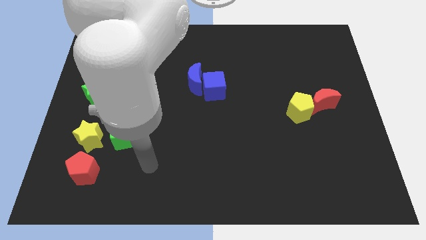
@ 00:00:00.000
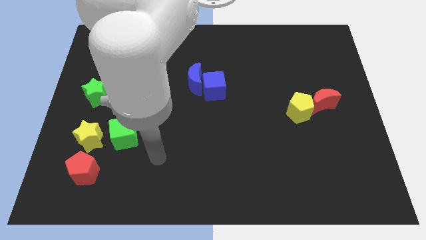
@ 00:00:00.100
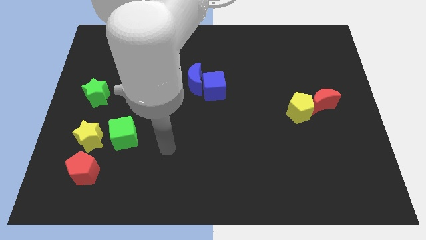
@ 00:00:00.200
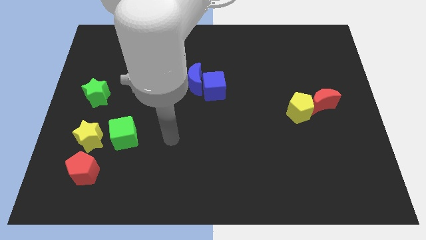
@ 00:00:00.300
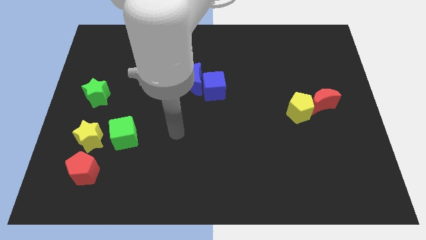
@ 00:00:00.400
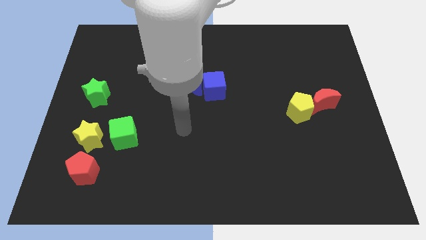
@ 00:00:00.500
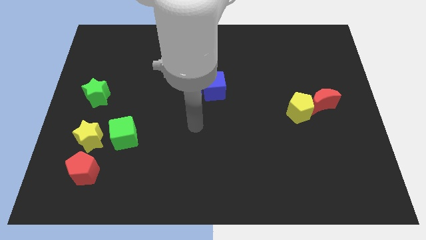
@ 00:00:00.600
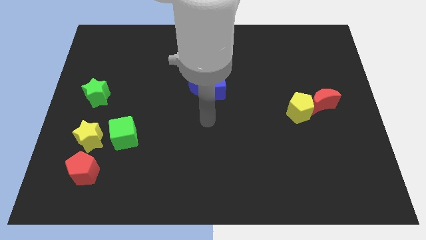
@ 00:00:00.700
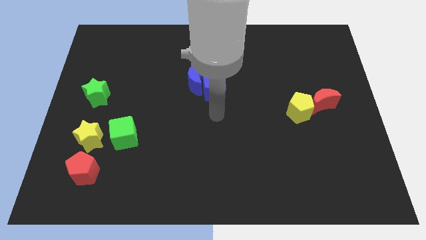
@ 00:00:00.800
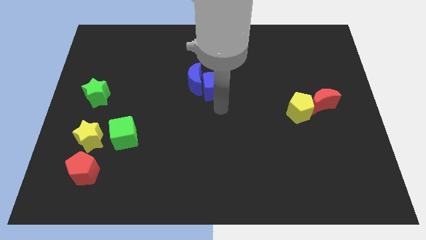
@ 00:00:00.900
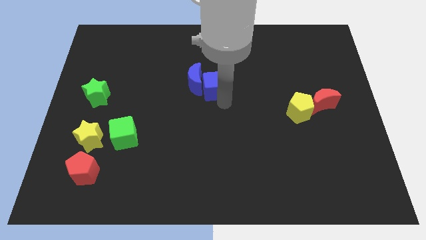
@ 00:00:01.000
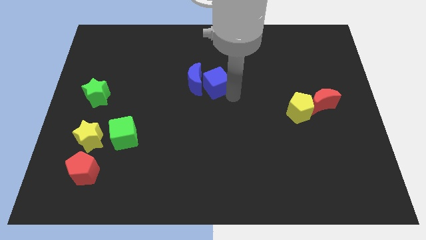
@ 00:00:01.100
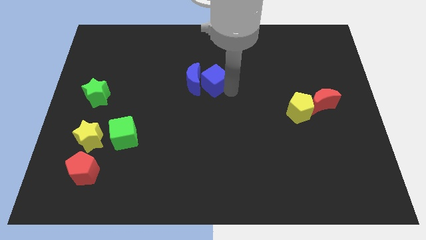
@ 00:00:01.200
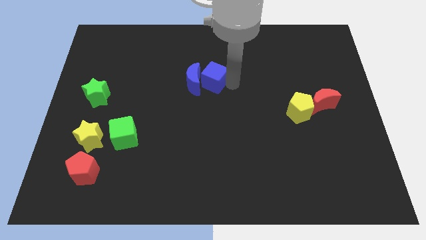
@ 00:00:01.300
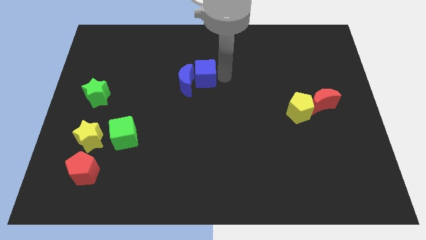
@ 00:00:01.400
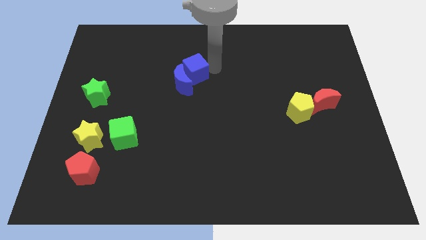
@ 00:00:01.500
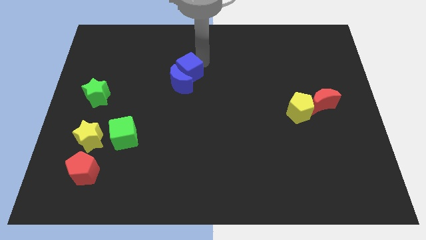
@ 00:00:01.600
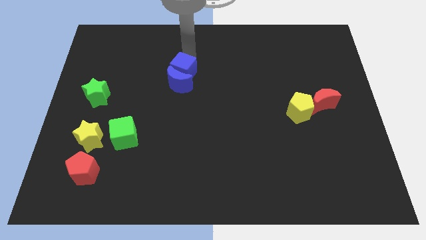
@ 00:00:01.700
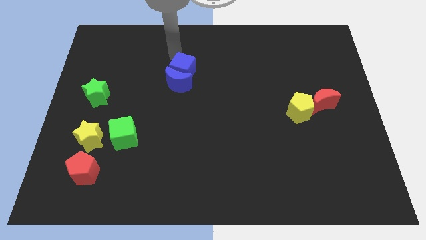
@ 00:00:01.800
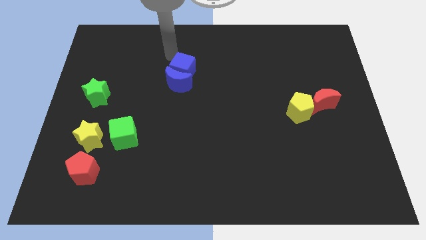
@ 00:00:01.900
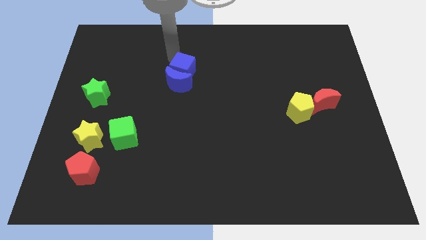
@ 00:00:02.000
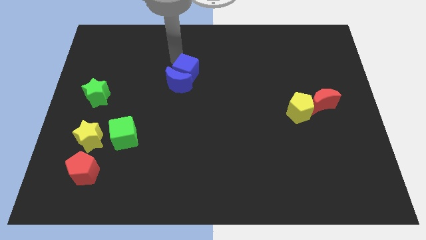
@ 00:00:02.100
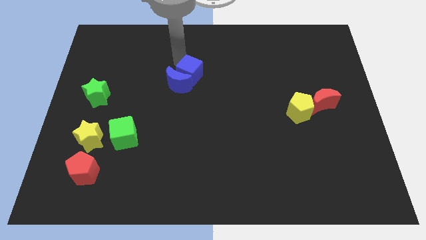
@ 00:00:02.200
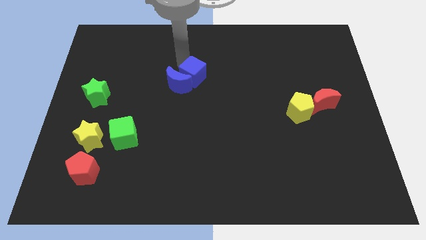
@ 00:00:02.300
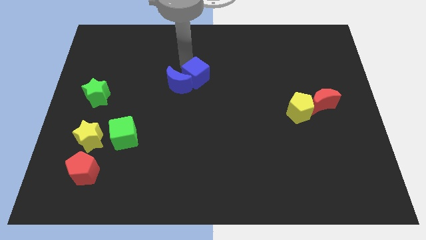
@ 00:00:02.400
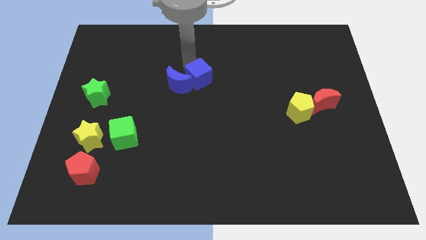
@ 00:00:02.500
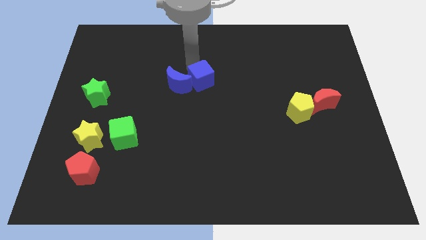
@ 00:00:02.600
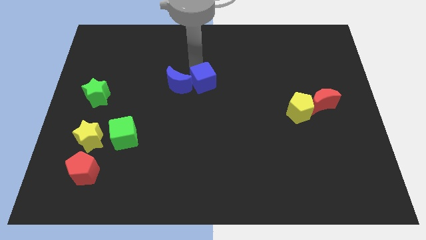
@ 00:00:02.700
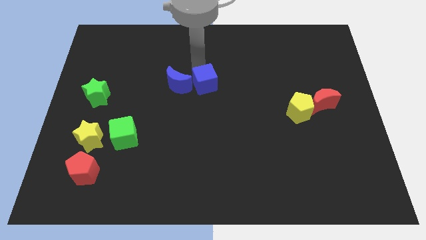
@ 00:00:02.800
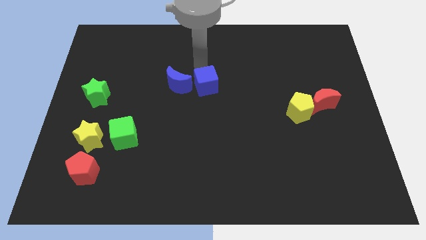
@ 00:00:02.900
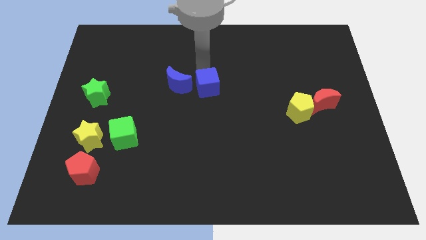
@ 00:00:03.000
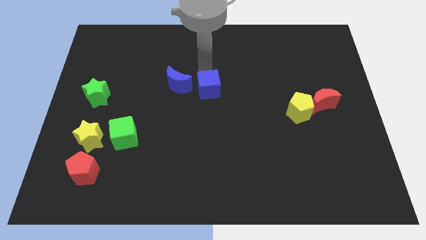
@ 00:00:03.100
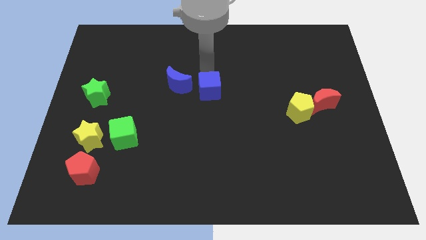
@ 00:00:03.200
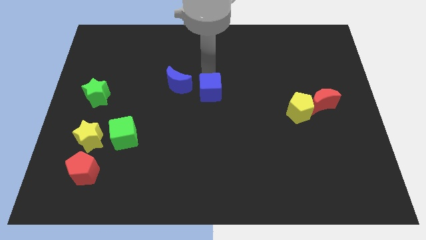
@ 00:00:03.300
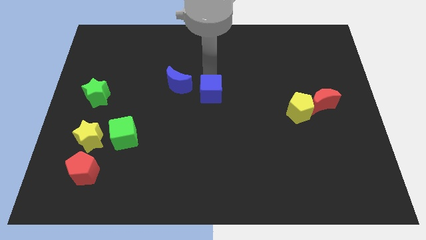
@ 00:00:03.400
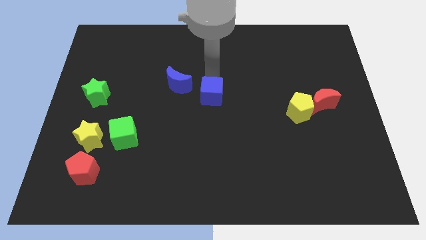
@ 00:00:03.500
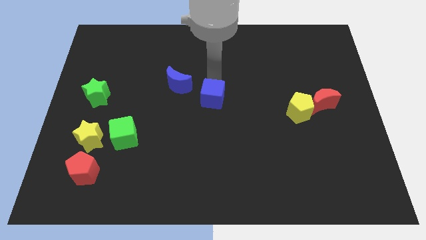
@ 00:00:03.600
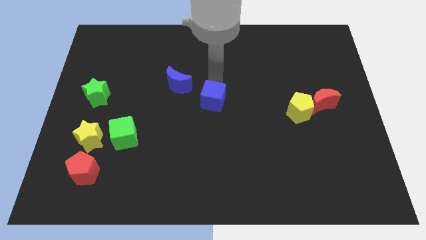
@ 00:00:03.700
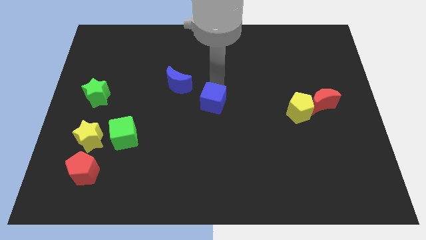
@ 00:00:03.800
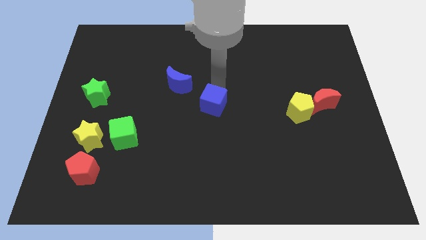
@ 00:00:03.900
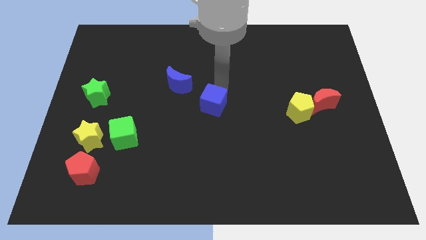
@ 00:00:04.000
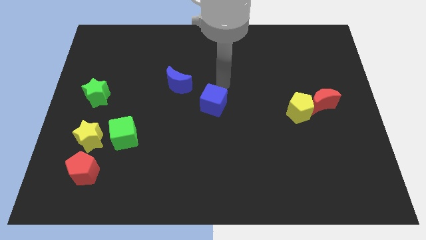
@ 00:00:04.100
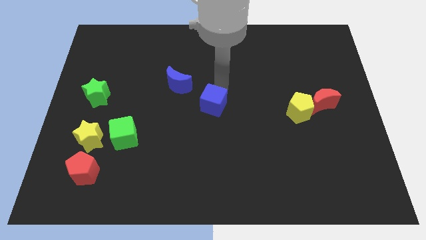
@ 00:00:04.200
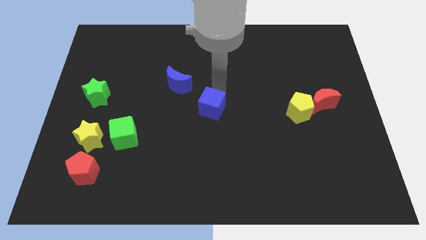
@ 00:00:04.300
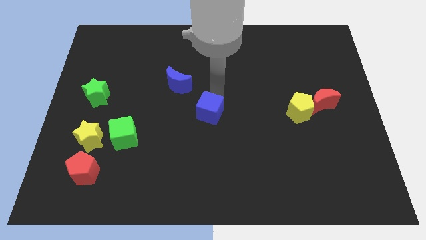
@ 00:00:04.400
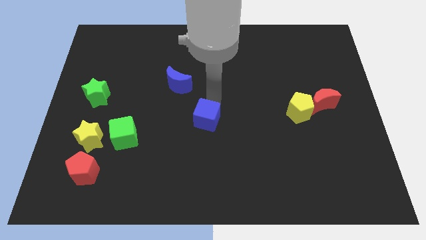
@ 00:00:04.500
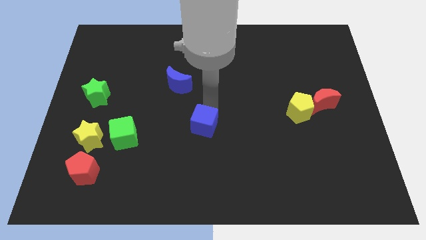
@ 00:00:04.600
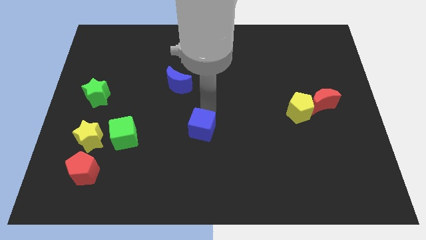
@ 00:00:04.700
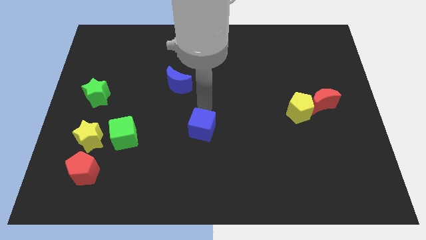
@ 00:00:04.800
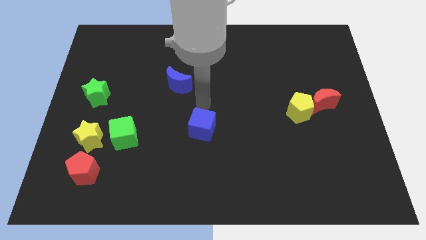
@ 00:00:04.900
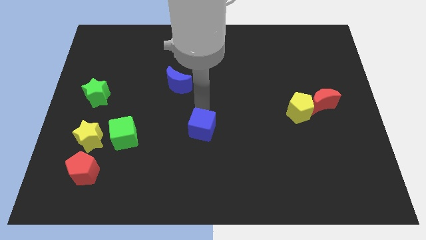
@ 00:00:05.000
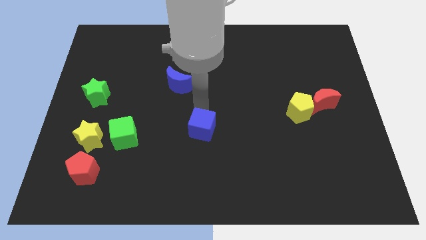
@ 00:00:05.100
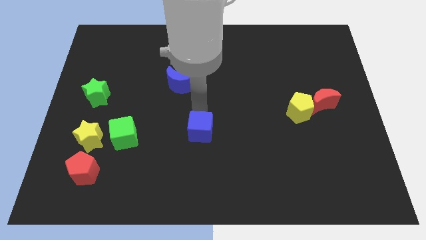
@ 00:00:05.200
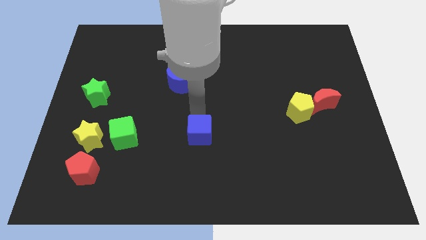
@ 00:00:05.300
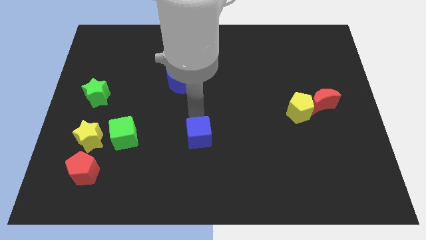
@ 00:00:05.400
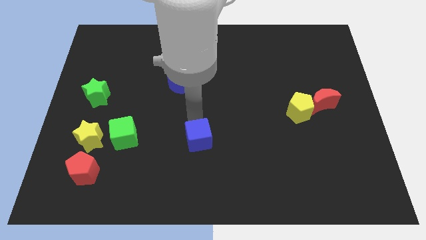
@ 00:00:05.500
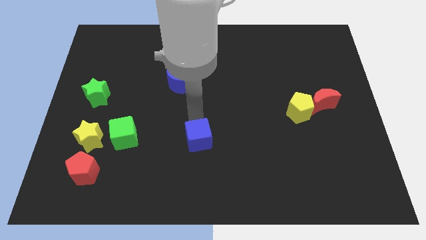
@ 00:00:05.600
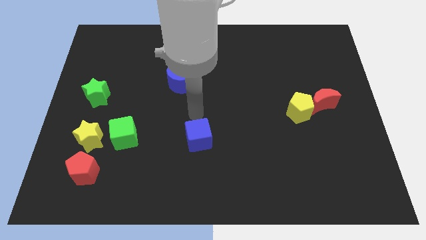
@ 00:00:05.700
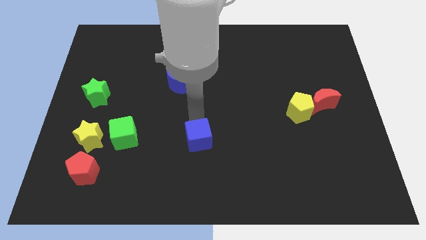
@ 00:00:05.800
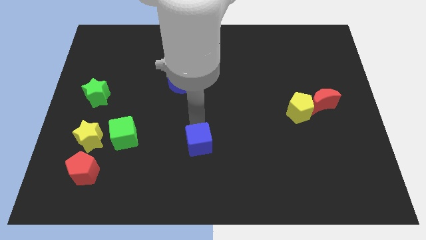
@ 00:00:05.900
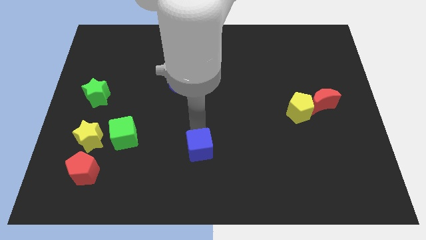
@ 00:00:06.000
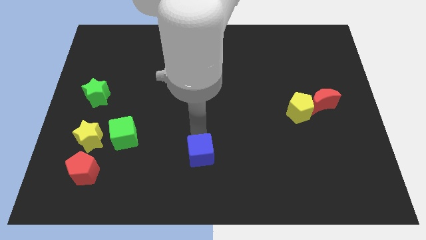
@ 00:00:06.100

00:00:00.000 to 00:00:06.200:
slide the blue cube to the bottom side
